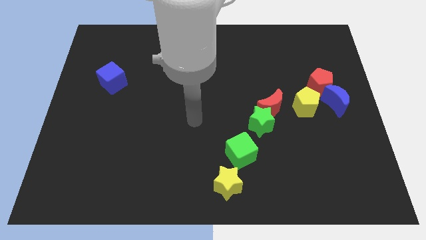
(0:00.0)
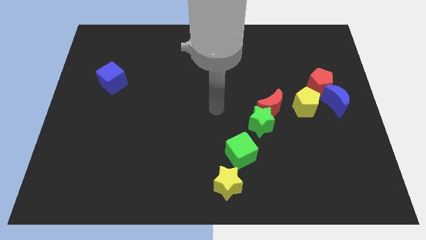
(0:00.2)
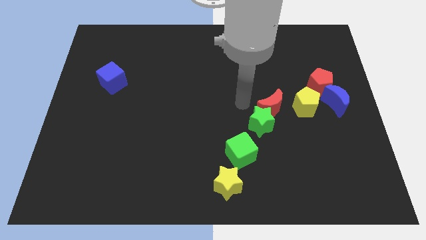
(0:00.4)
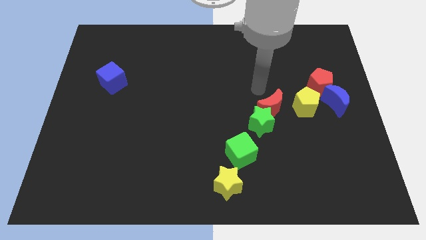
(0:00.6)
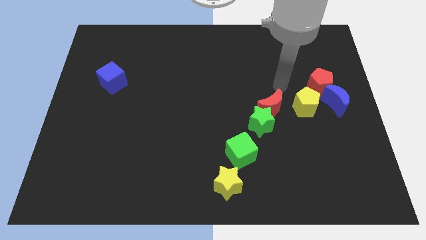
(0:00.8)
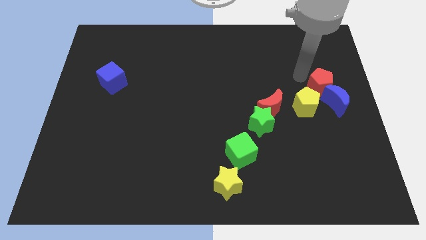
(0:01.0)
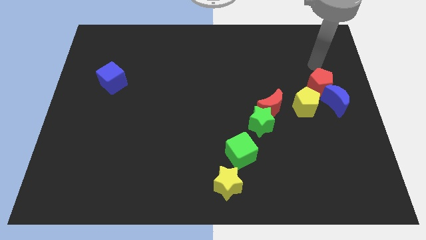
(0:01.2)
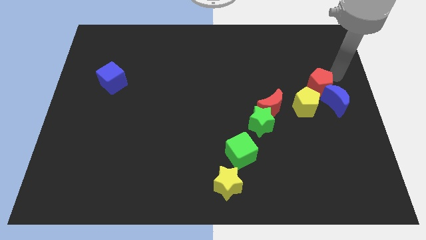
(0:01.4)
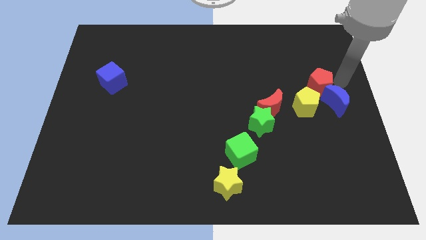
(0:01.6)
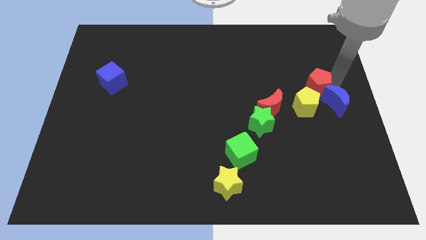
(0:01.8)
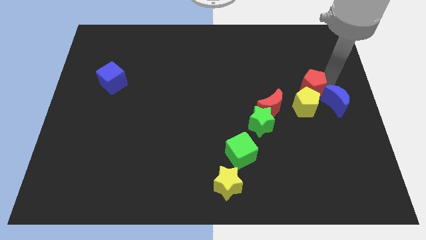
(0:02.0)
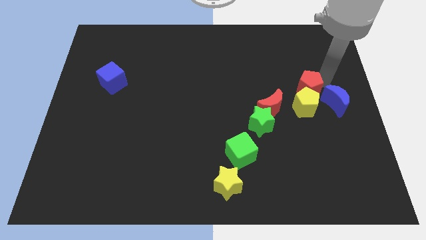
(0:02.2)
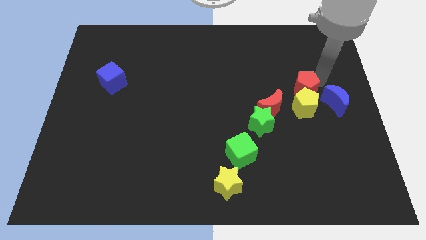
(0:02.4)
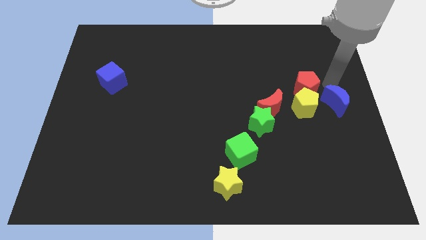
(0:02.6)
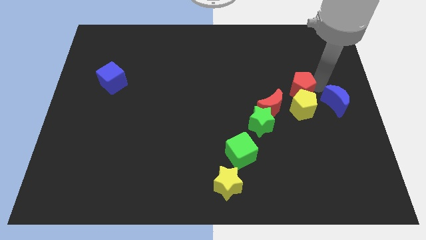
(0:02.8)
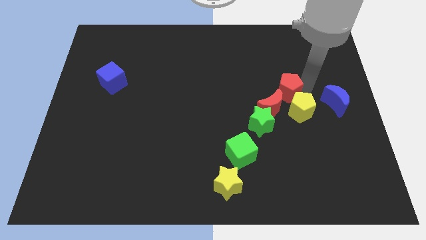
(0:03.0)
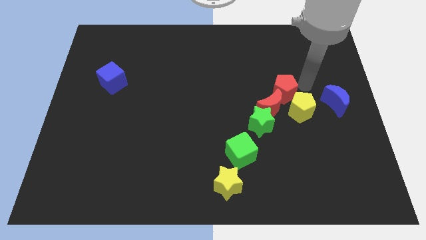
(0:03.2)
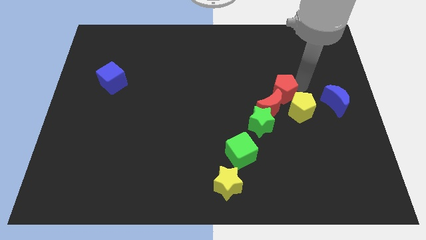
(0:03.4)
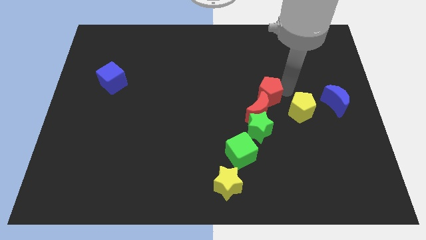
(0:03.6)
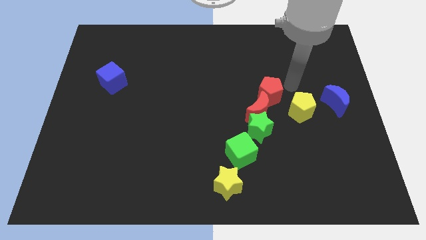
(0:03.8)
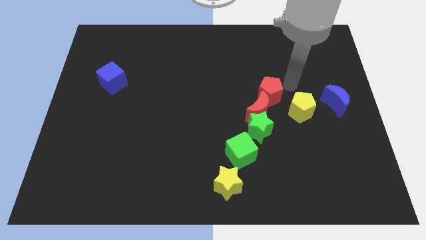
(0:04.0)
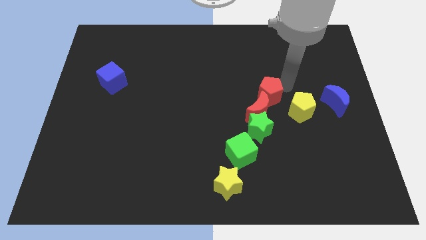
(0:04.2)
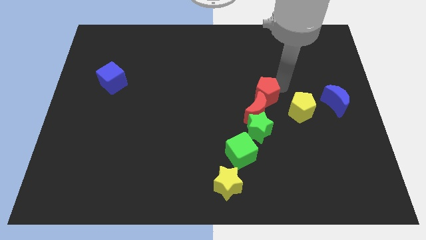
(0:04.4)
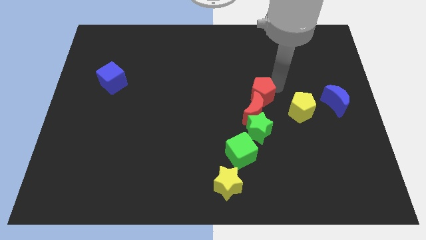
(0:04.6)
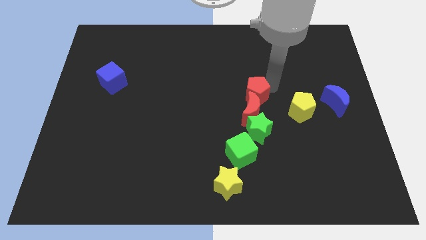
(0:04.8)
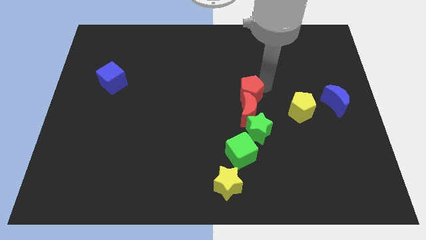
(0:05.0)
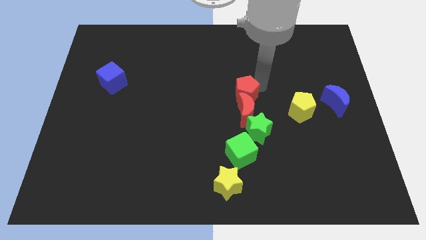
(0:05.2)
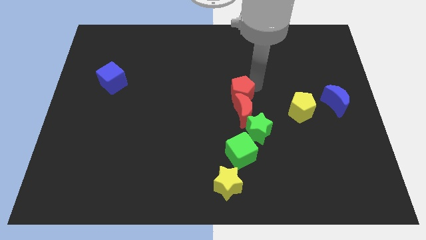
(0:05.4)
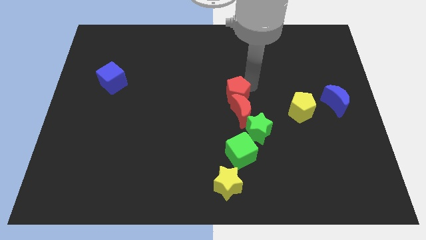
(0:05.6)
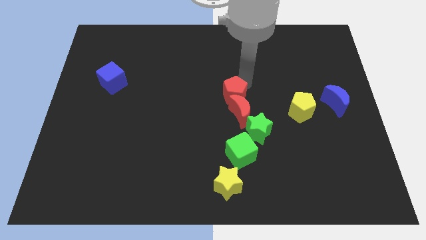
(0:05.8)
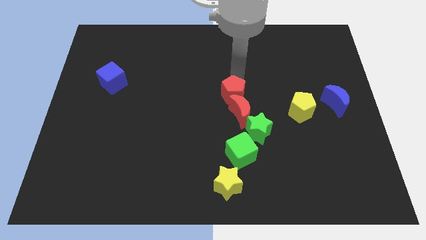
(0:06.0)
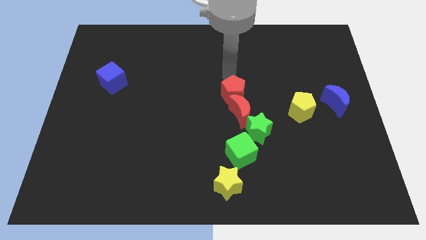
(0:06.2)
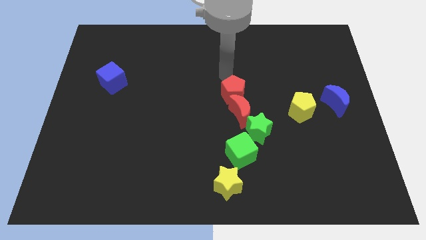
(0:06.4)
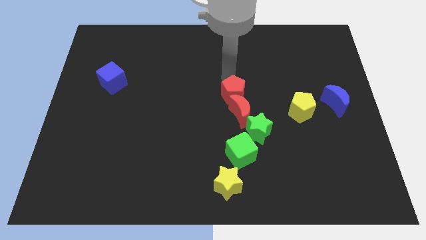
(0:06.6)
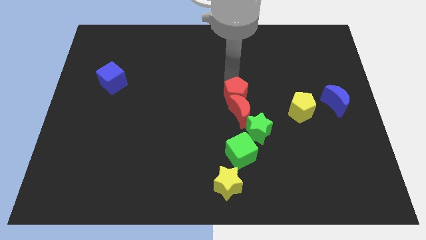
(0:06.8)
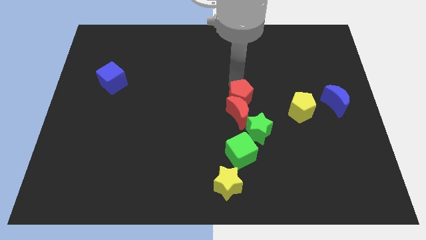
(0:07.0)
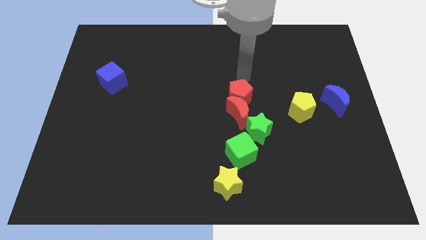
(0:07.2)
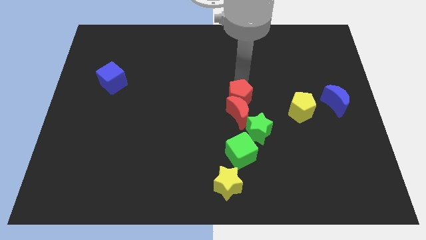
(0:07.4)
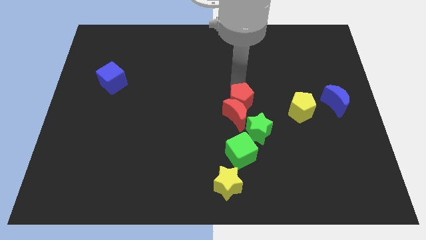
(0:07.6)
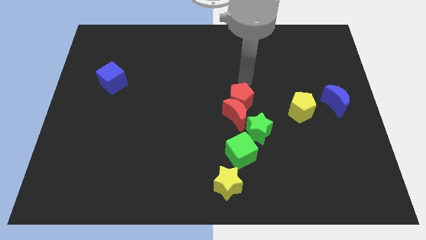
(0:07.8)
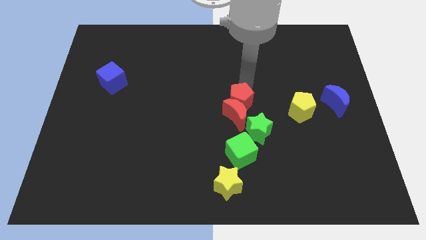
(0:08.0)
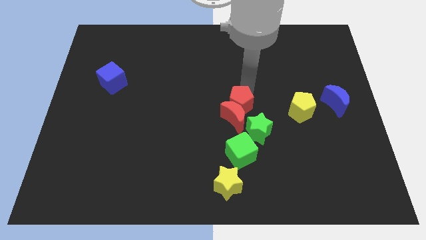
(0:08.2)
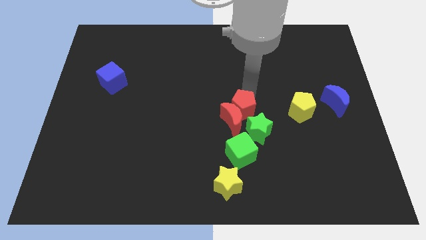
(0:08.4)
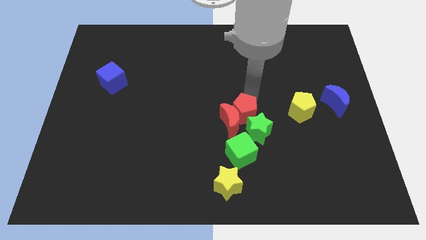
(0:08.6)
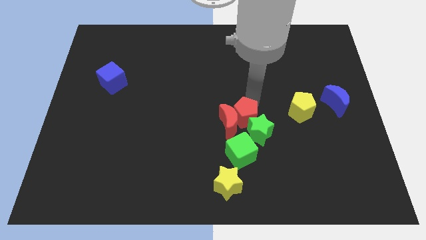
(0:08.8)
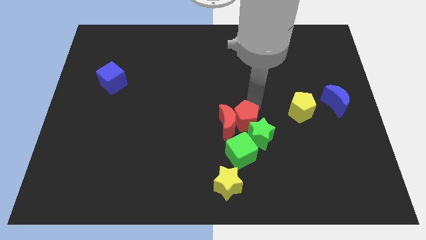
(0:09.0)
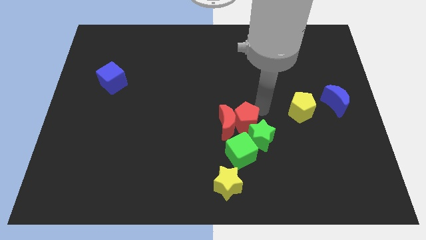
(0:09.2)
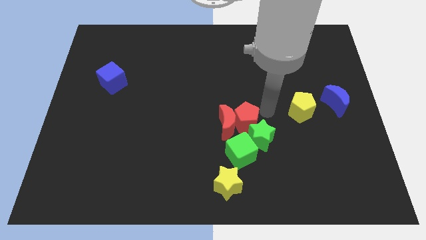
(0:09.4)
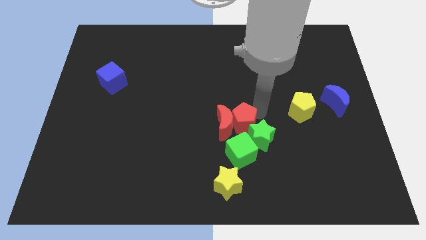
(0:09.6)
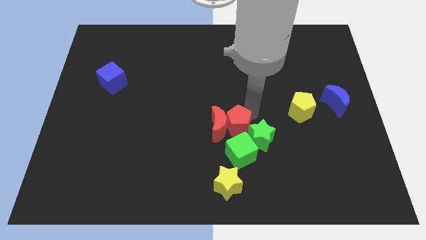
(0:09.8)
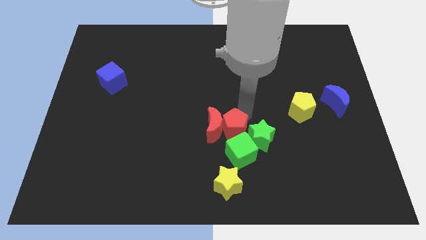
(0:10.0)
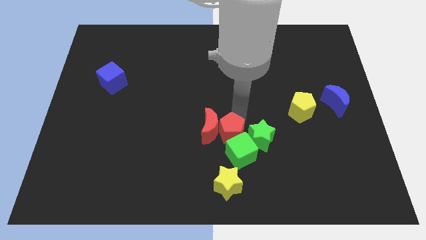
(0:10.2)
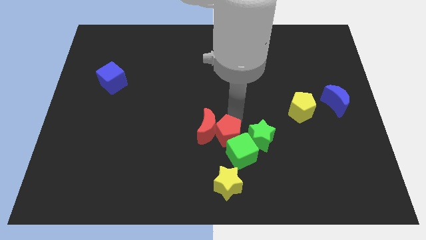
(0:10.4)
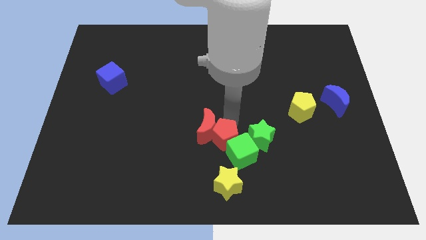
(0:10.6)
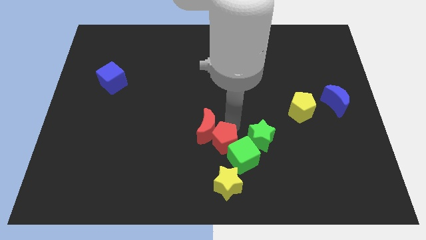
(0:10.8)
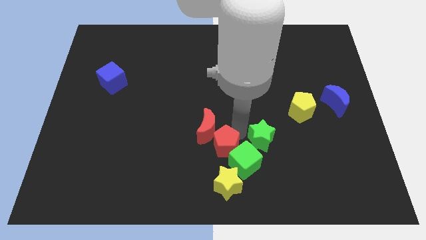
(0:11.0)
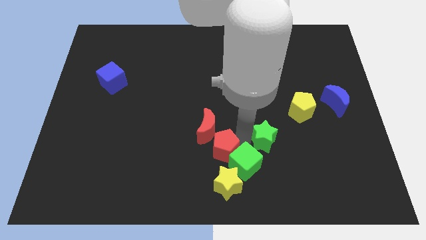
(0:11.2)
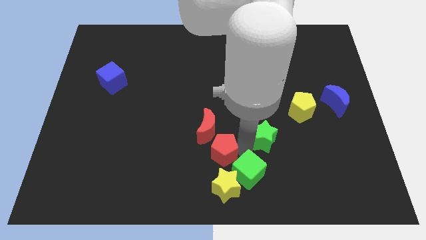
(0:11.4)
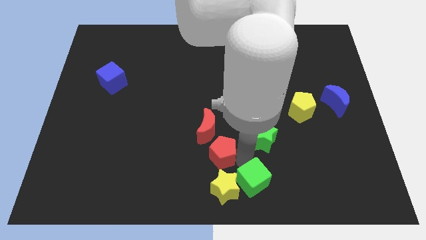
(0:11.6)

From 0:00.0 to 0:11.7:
put the red pentagon to the top left of the yellow star
